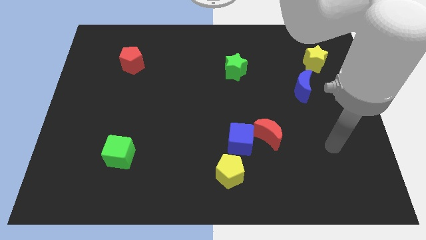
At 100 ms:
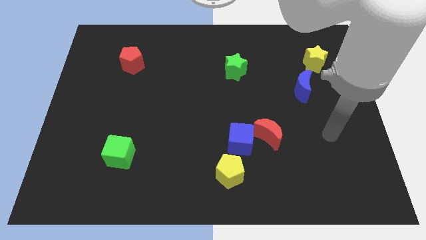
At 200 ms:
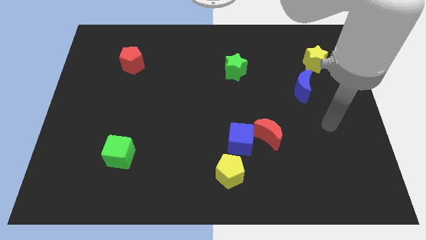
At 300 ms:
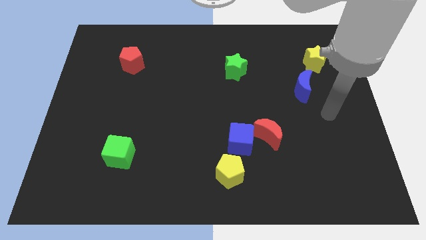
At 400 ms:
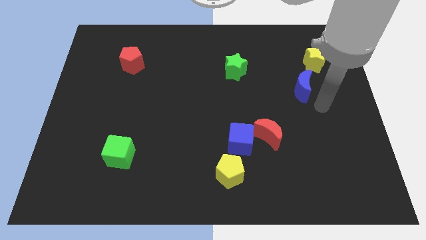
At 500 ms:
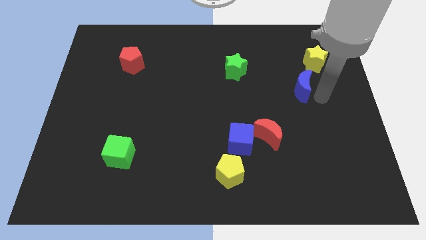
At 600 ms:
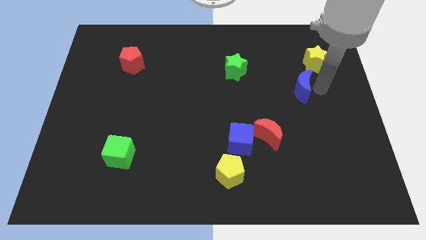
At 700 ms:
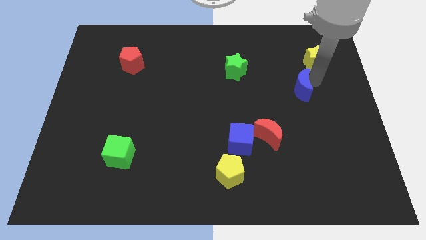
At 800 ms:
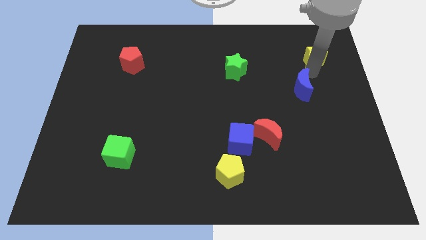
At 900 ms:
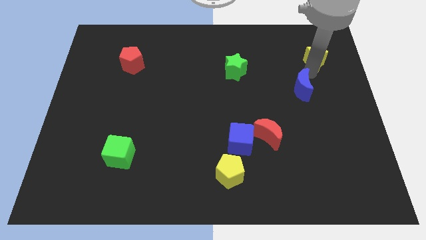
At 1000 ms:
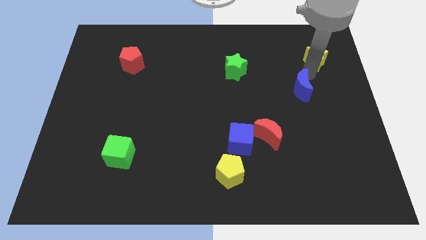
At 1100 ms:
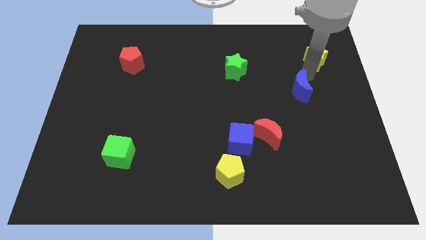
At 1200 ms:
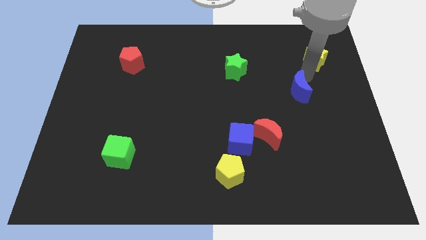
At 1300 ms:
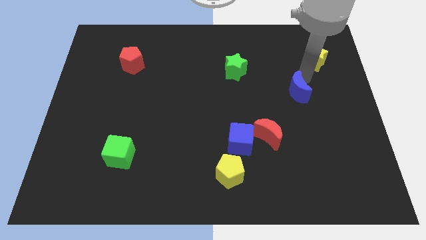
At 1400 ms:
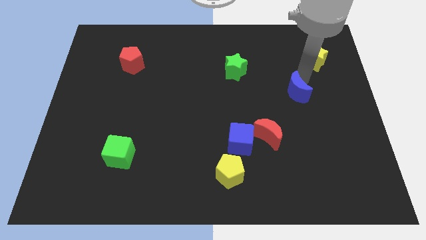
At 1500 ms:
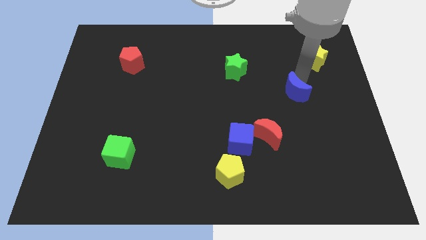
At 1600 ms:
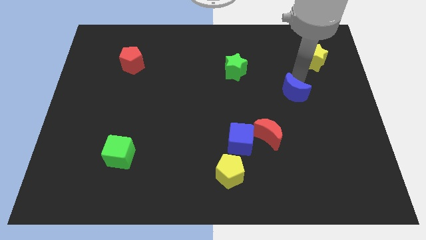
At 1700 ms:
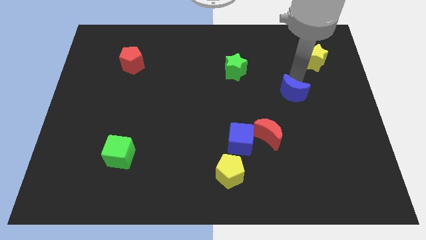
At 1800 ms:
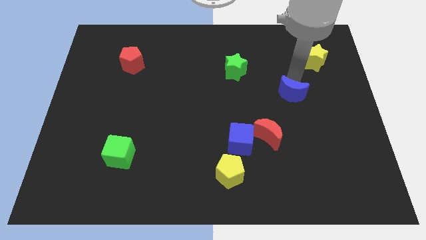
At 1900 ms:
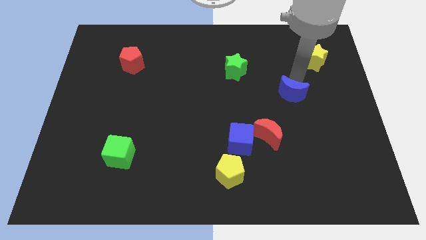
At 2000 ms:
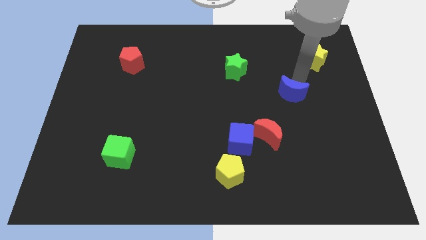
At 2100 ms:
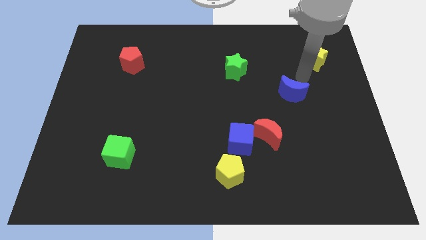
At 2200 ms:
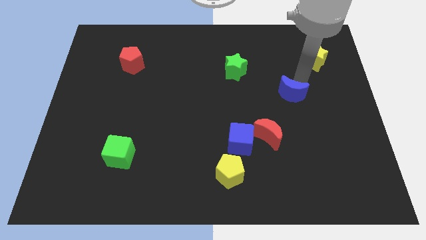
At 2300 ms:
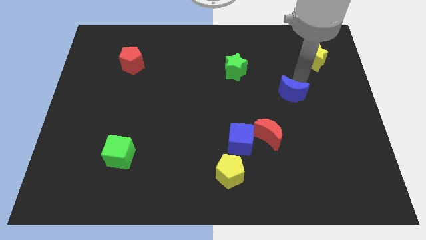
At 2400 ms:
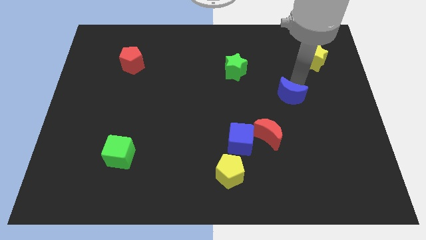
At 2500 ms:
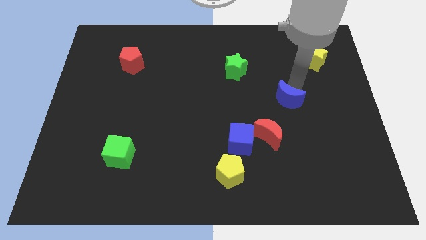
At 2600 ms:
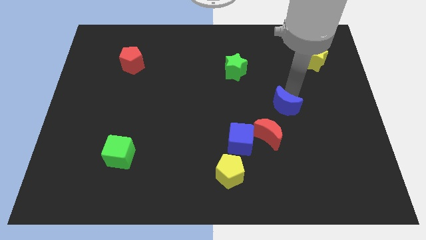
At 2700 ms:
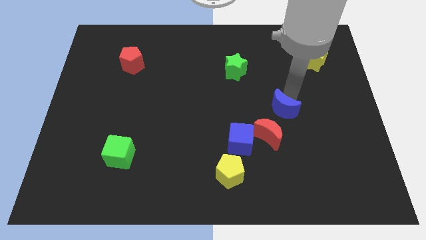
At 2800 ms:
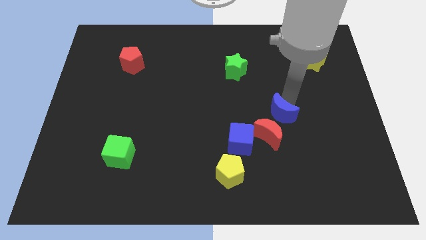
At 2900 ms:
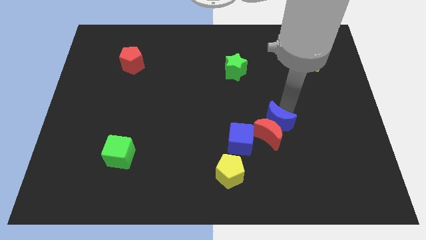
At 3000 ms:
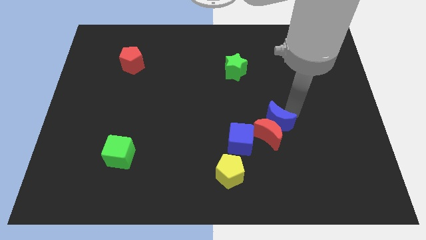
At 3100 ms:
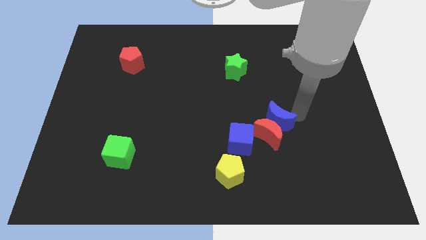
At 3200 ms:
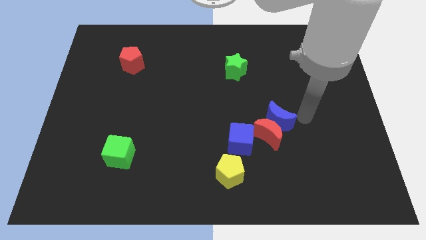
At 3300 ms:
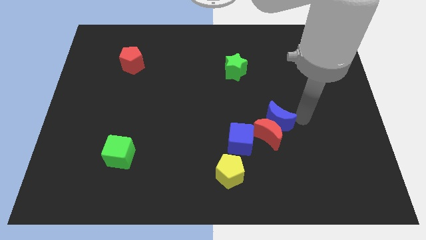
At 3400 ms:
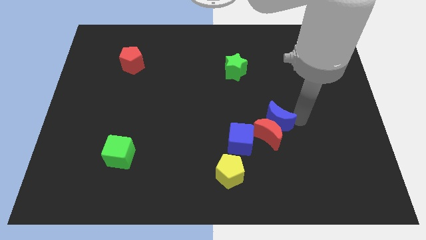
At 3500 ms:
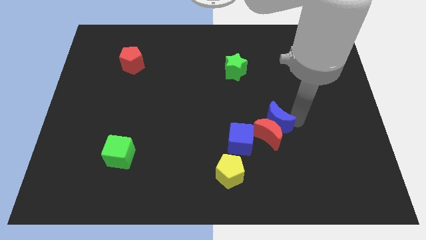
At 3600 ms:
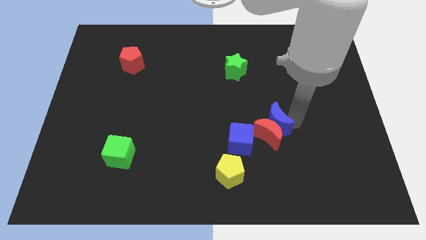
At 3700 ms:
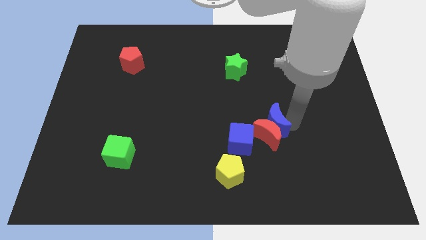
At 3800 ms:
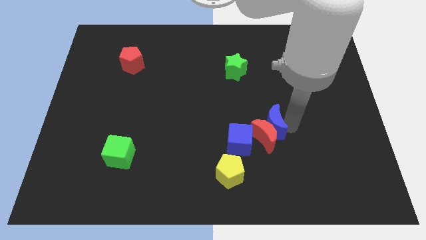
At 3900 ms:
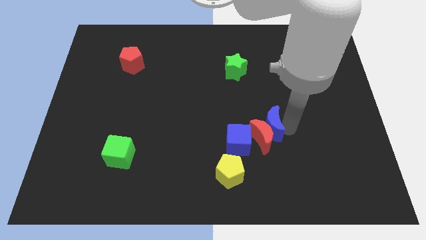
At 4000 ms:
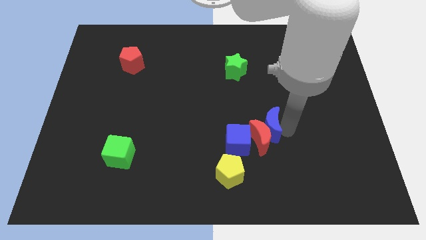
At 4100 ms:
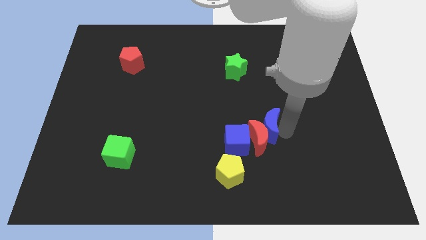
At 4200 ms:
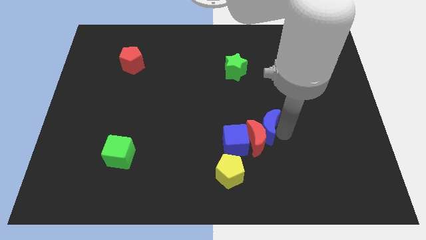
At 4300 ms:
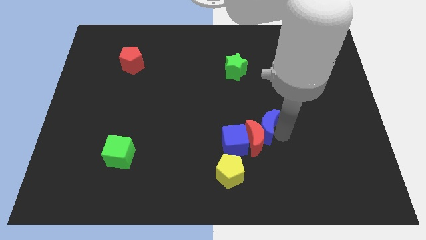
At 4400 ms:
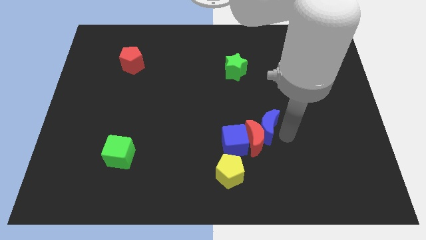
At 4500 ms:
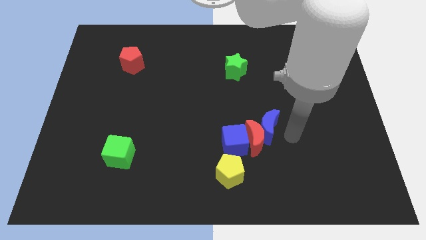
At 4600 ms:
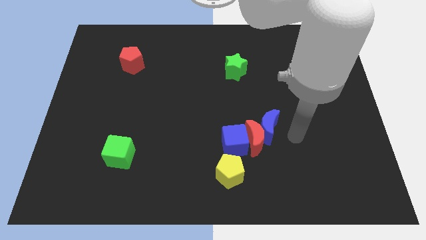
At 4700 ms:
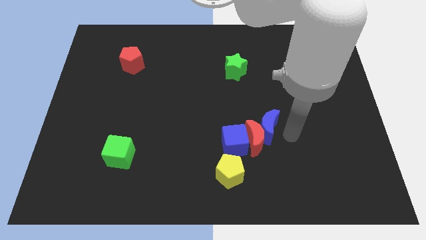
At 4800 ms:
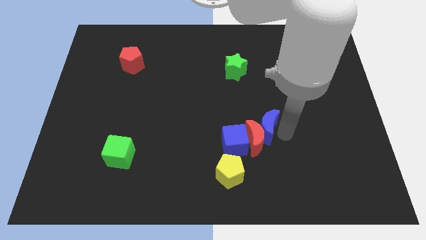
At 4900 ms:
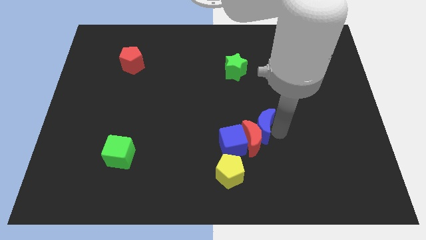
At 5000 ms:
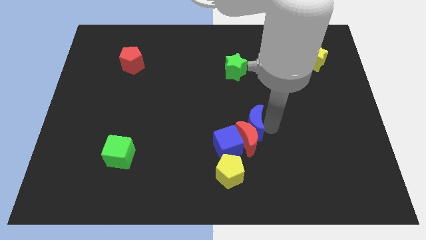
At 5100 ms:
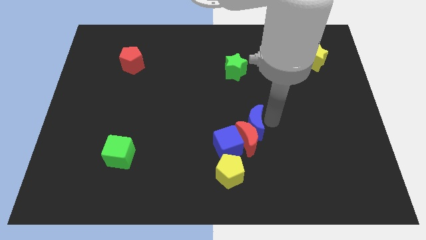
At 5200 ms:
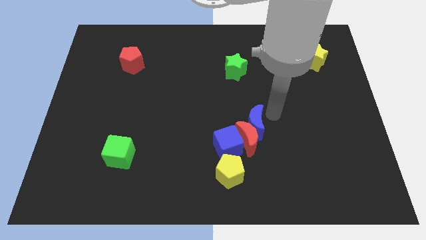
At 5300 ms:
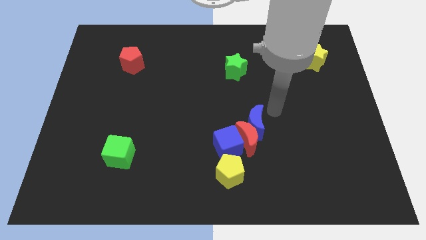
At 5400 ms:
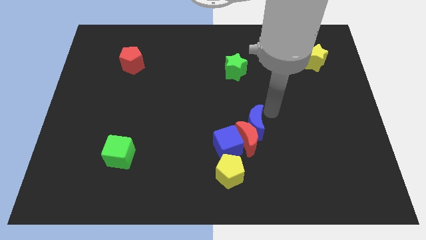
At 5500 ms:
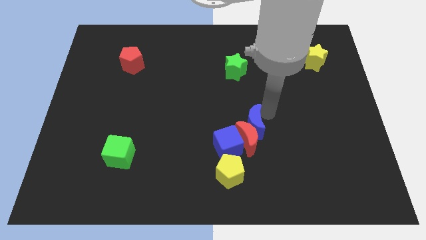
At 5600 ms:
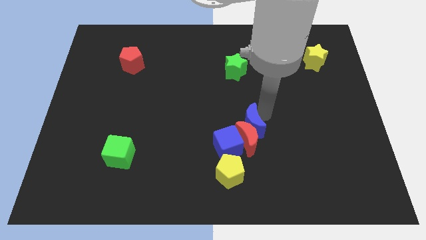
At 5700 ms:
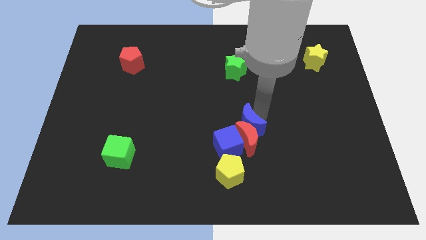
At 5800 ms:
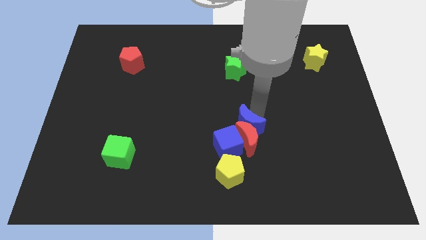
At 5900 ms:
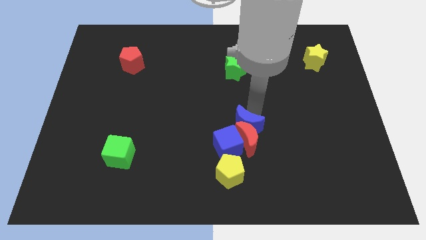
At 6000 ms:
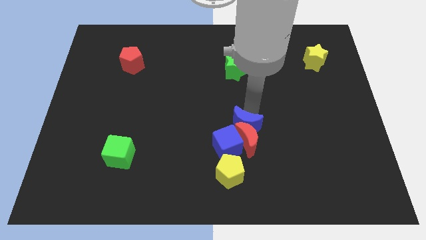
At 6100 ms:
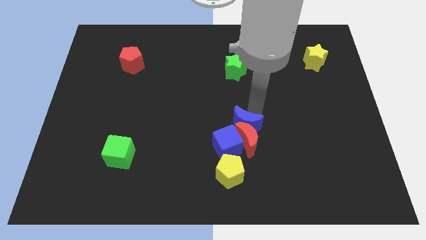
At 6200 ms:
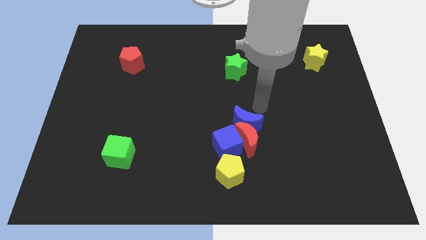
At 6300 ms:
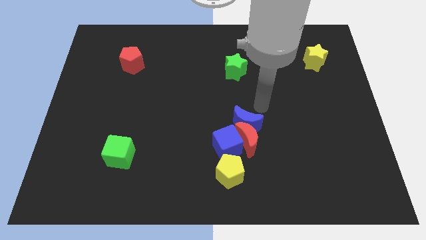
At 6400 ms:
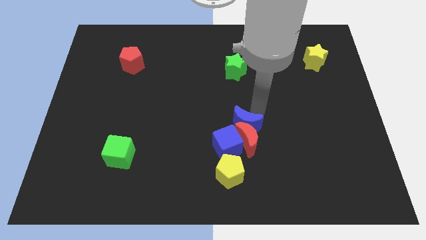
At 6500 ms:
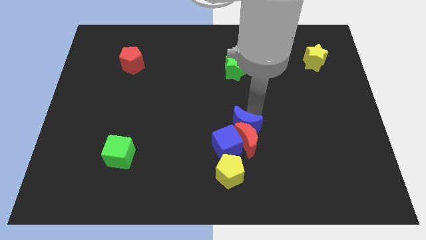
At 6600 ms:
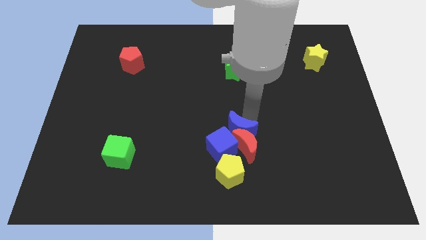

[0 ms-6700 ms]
push the blue moon close to the blue cube
